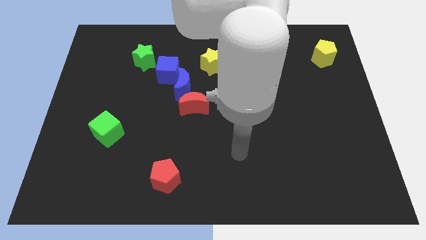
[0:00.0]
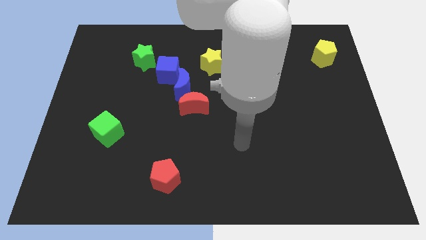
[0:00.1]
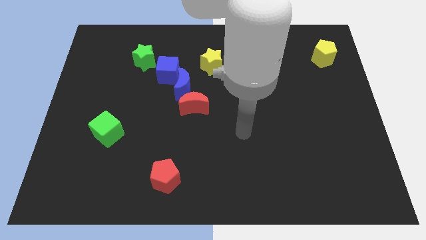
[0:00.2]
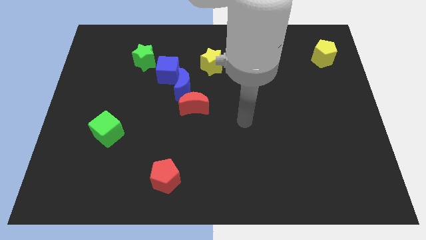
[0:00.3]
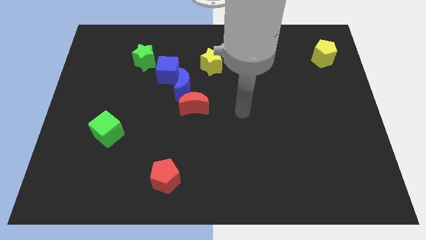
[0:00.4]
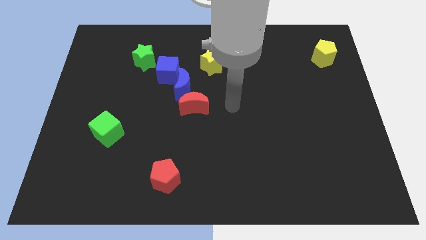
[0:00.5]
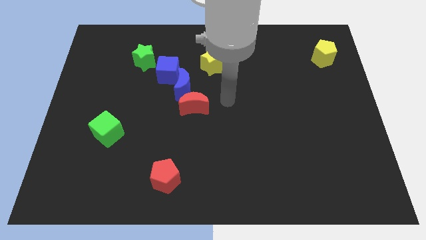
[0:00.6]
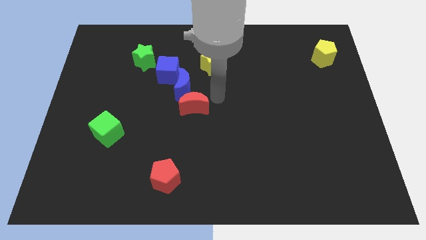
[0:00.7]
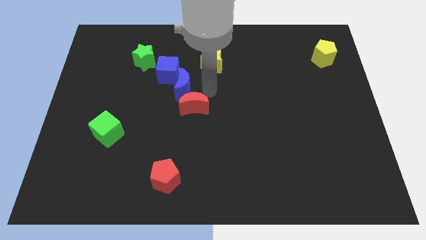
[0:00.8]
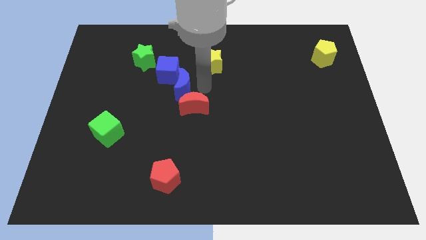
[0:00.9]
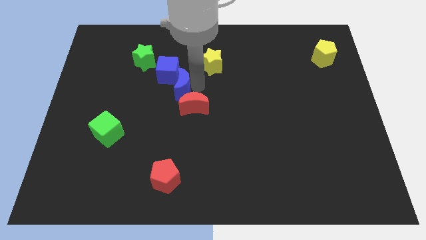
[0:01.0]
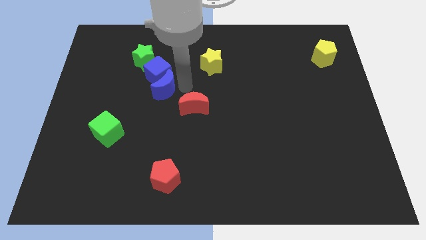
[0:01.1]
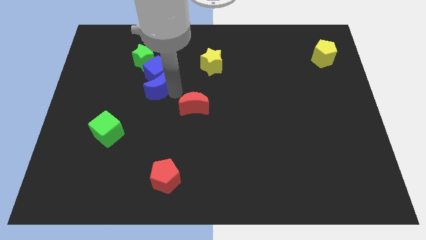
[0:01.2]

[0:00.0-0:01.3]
separate the red moon from the blue moon

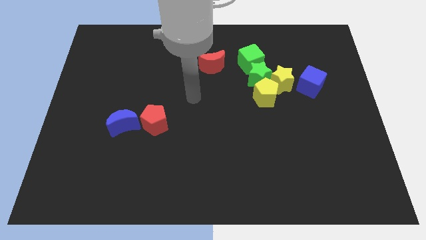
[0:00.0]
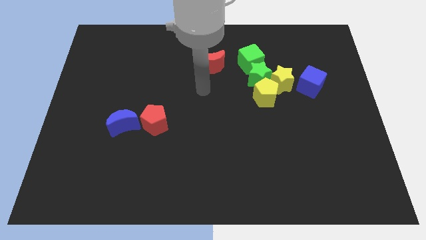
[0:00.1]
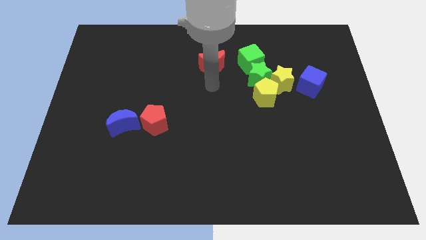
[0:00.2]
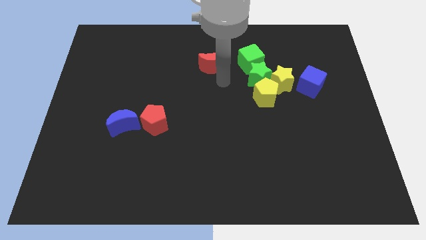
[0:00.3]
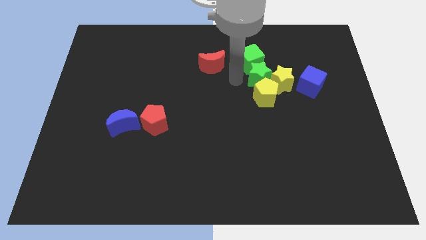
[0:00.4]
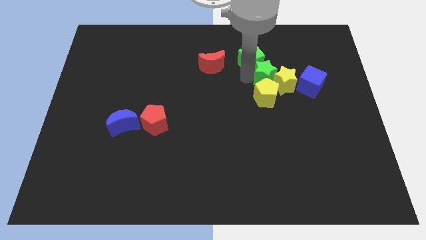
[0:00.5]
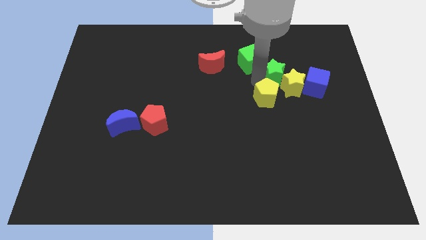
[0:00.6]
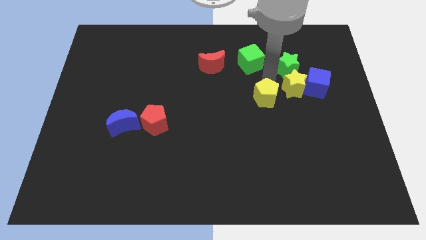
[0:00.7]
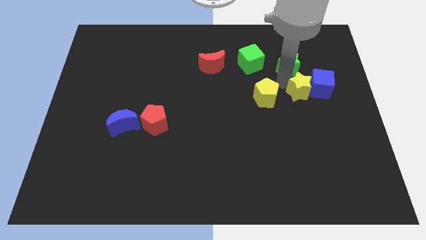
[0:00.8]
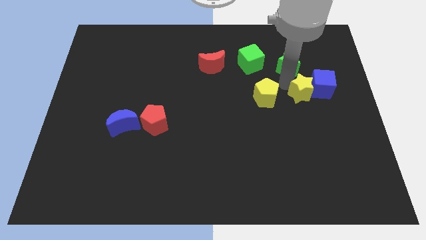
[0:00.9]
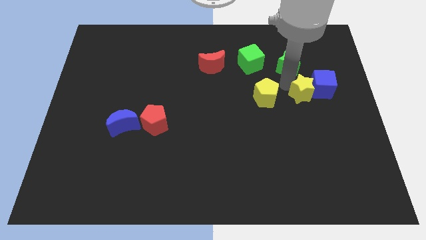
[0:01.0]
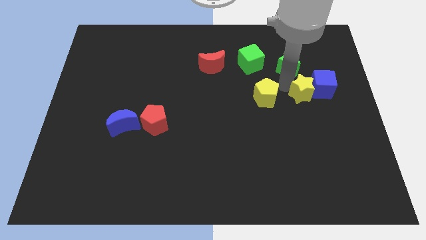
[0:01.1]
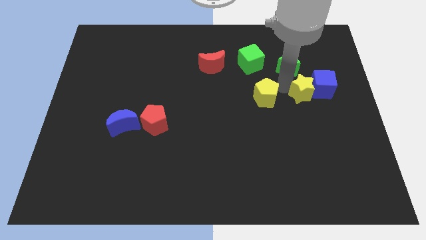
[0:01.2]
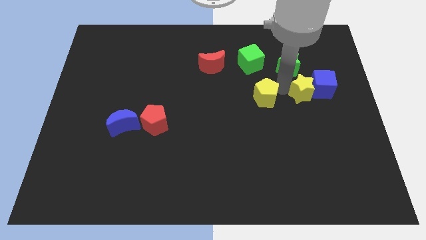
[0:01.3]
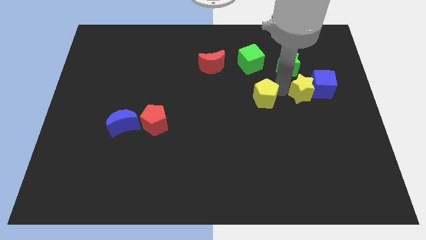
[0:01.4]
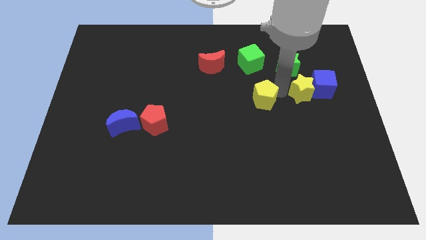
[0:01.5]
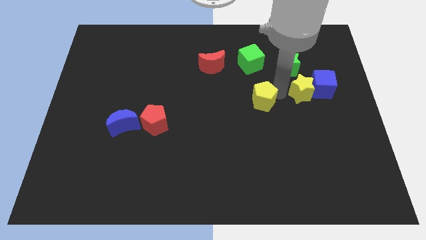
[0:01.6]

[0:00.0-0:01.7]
move the yellow pentagon away from the green star and yellow star

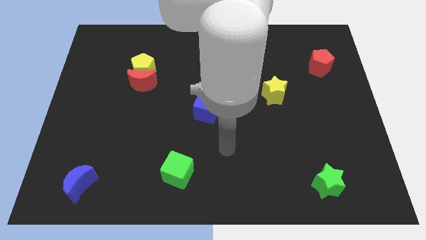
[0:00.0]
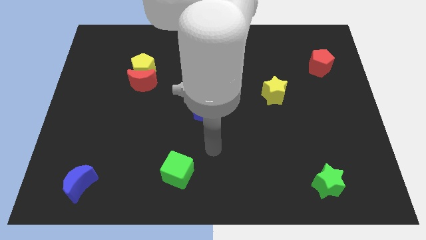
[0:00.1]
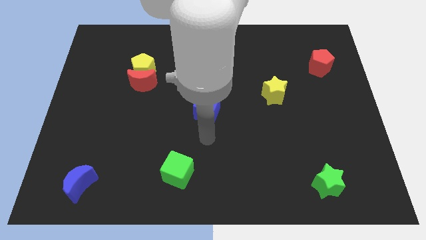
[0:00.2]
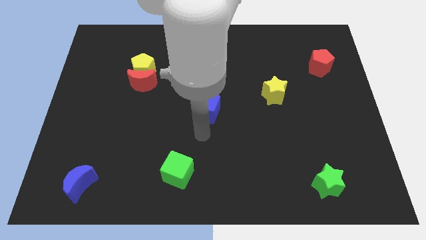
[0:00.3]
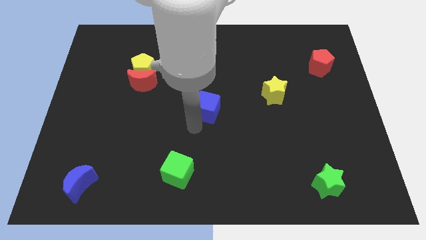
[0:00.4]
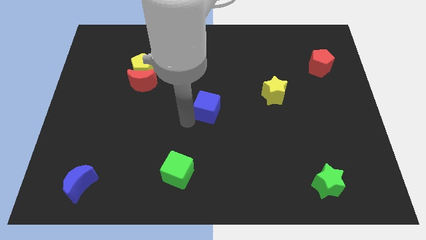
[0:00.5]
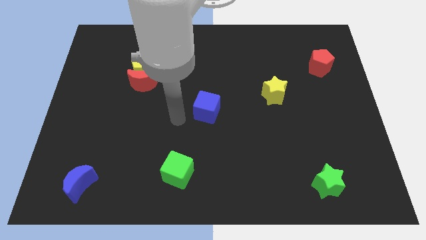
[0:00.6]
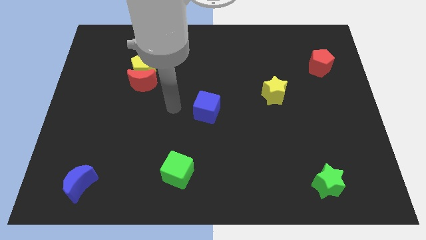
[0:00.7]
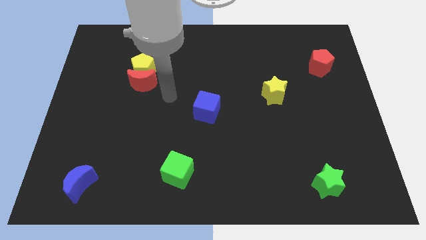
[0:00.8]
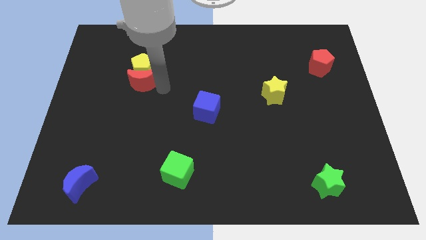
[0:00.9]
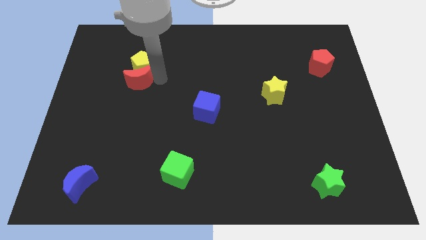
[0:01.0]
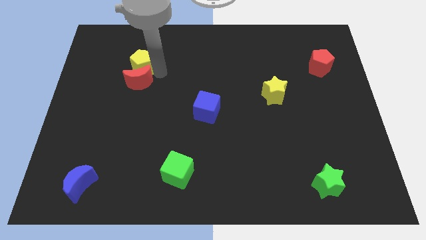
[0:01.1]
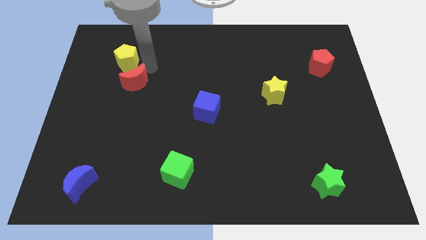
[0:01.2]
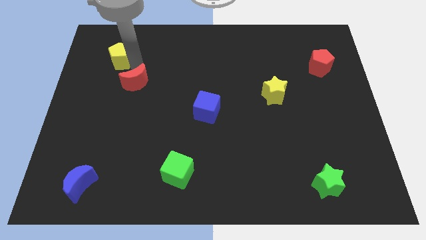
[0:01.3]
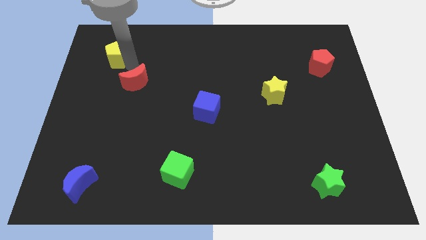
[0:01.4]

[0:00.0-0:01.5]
move the red moon away from the yellow pentagon

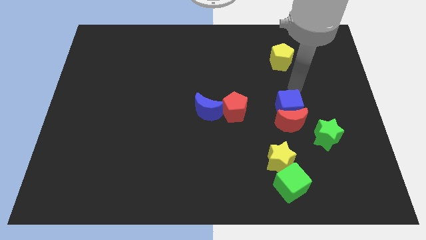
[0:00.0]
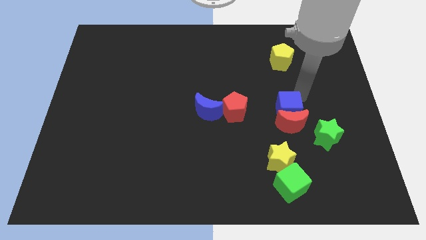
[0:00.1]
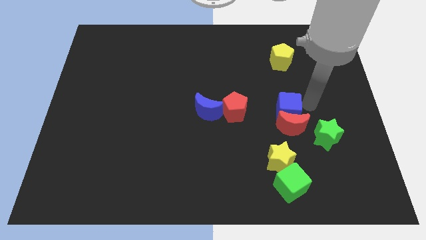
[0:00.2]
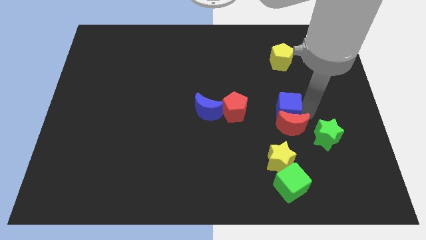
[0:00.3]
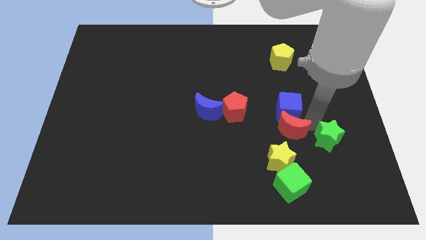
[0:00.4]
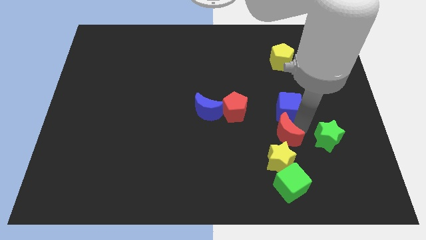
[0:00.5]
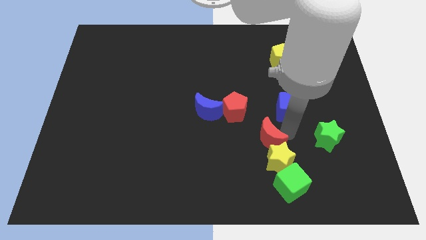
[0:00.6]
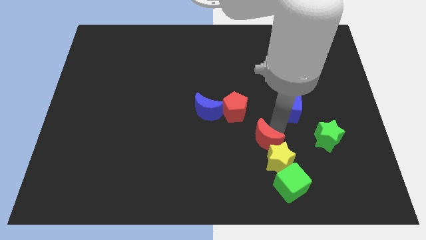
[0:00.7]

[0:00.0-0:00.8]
move the blue cube away from the red moon

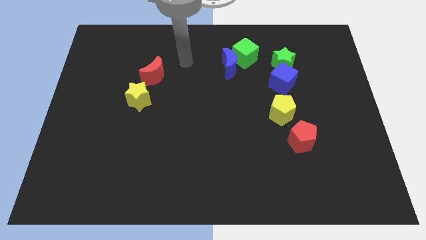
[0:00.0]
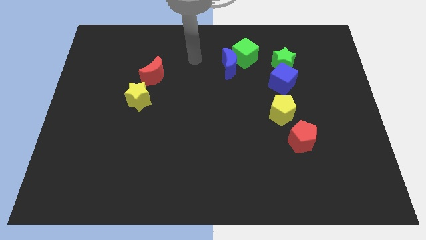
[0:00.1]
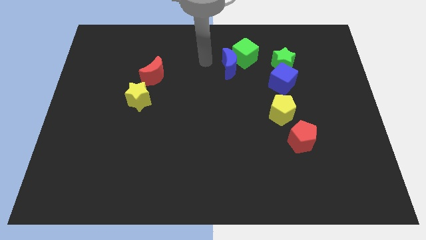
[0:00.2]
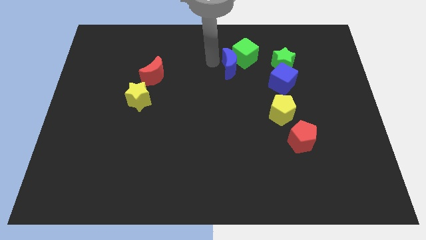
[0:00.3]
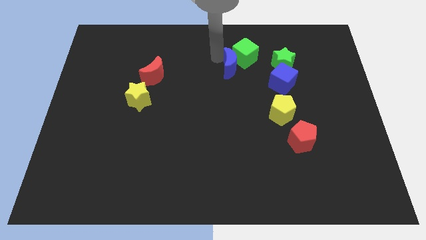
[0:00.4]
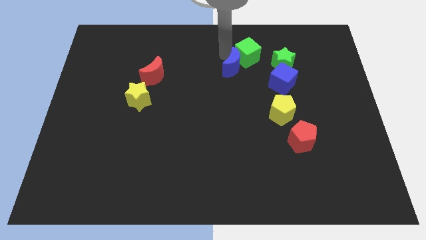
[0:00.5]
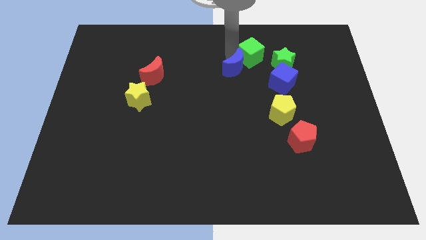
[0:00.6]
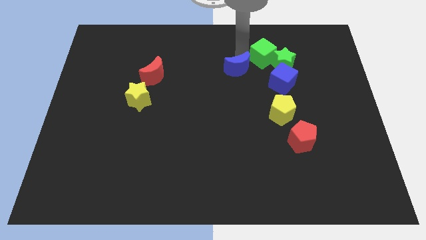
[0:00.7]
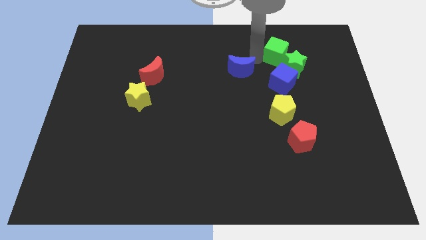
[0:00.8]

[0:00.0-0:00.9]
move the blue moon away from the green cube

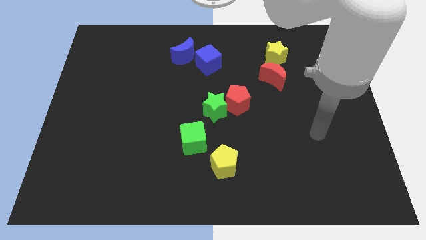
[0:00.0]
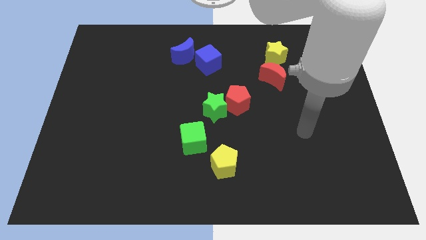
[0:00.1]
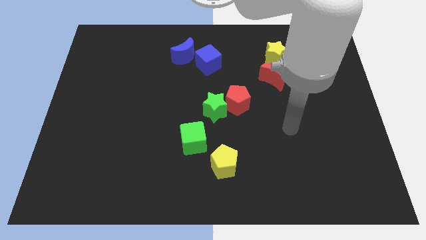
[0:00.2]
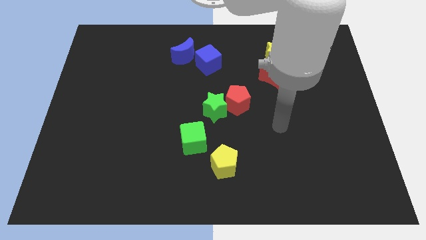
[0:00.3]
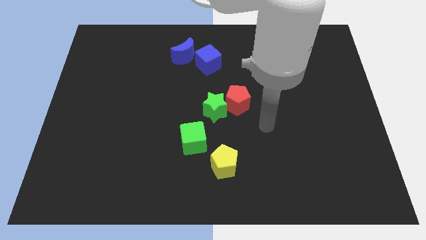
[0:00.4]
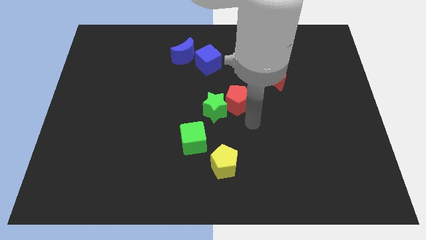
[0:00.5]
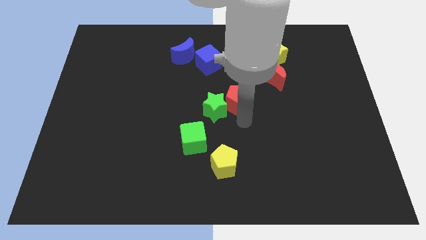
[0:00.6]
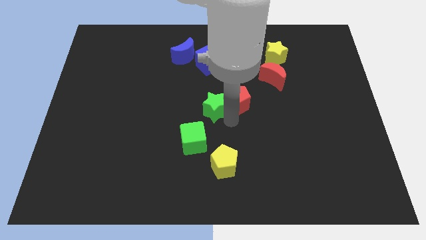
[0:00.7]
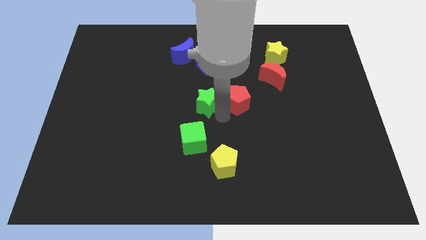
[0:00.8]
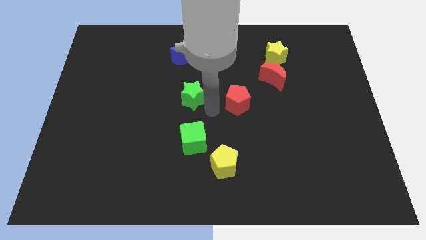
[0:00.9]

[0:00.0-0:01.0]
pull the red pentagon apart from the green star

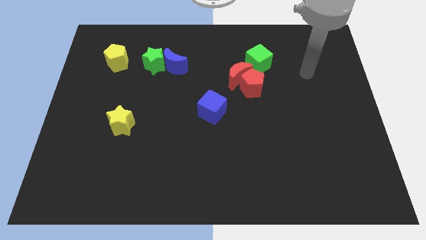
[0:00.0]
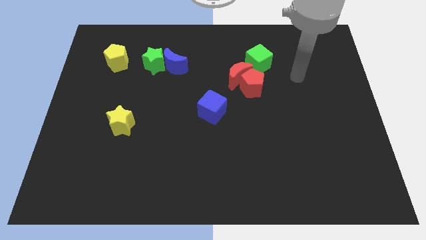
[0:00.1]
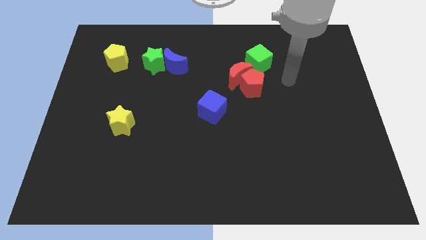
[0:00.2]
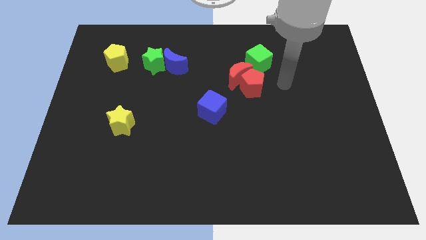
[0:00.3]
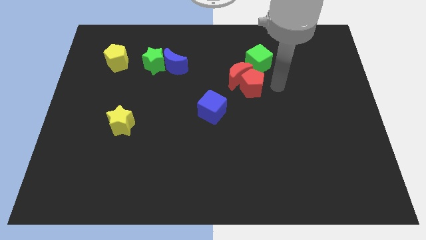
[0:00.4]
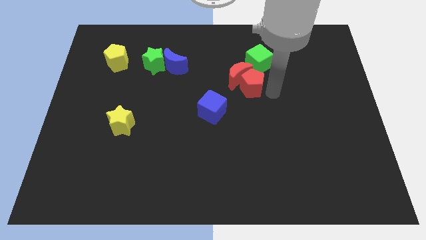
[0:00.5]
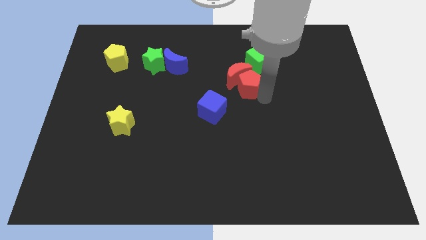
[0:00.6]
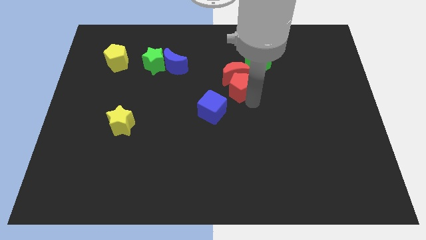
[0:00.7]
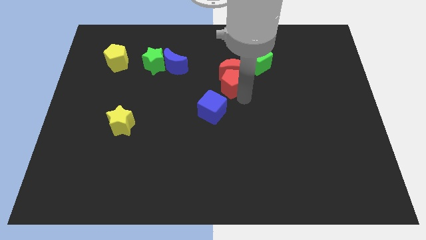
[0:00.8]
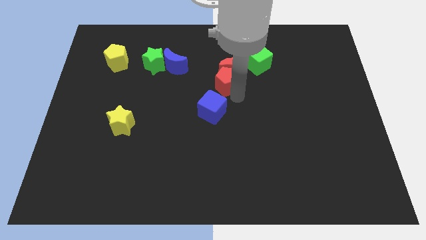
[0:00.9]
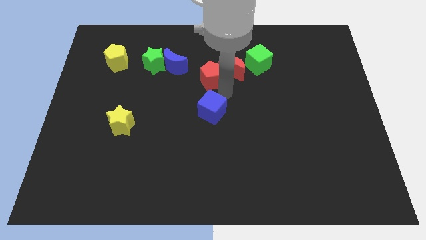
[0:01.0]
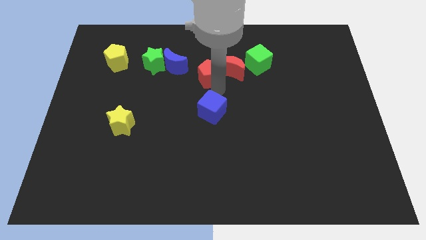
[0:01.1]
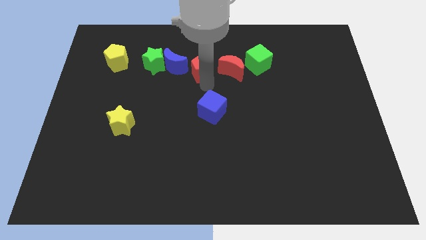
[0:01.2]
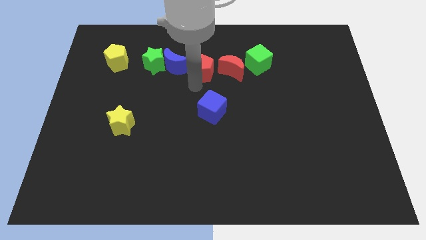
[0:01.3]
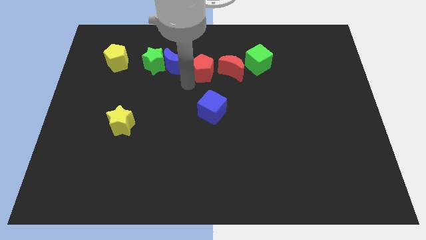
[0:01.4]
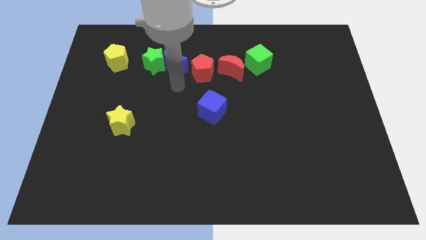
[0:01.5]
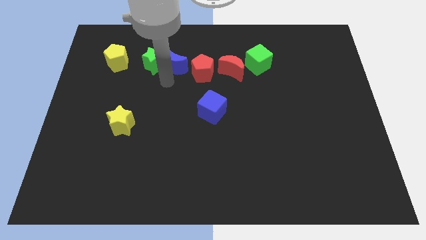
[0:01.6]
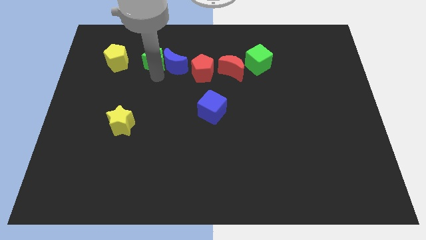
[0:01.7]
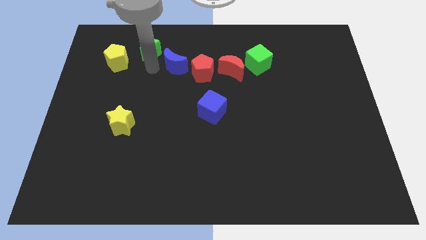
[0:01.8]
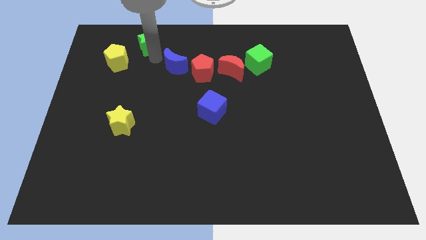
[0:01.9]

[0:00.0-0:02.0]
move the blue moon away from the green star
